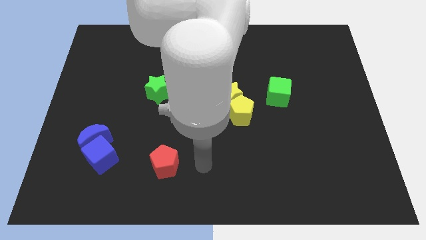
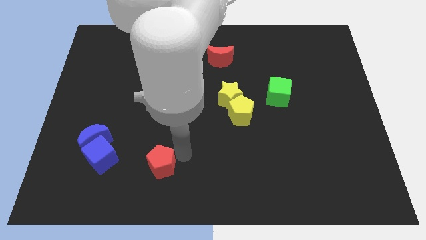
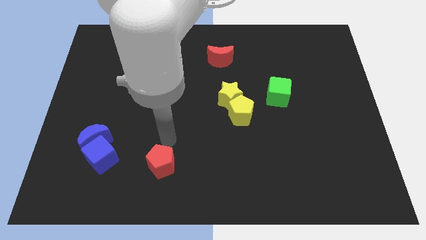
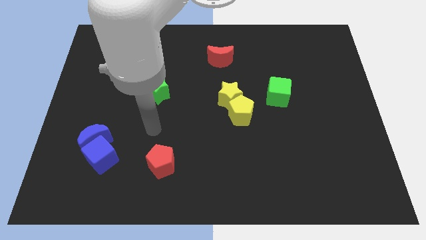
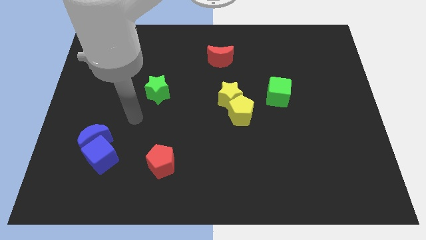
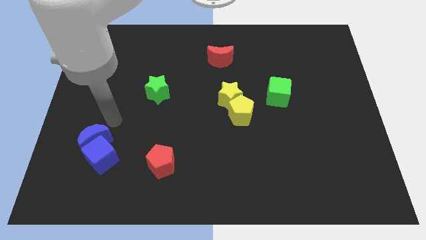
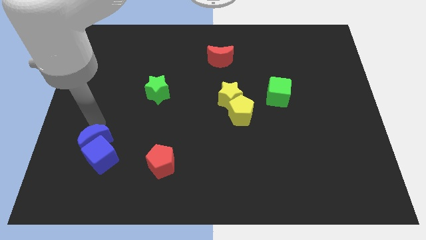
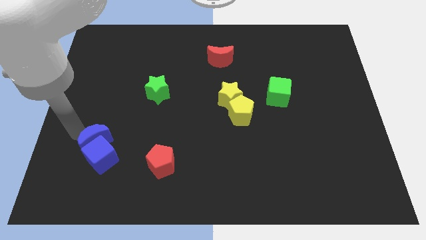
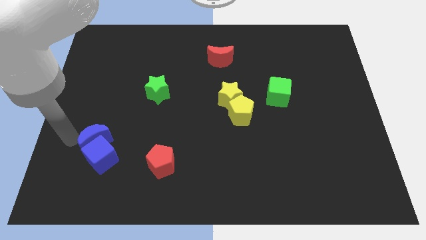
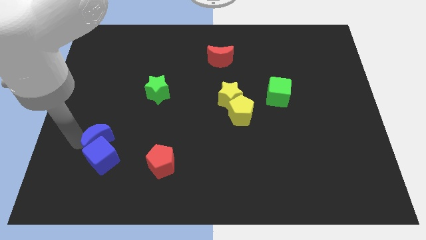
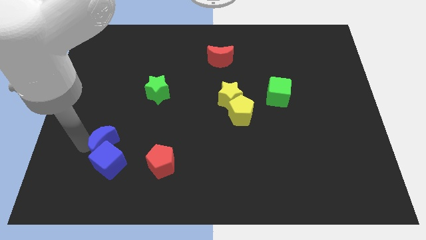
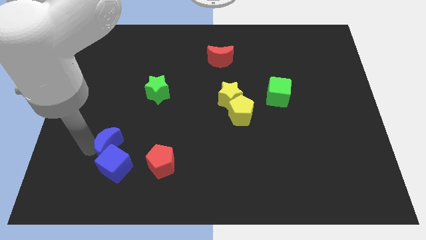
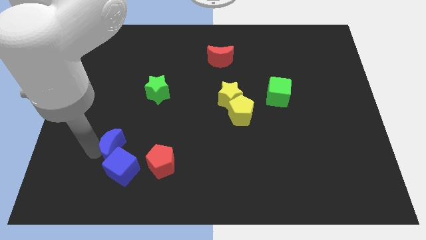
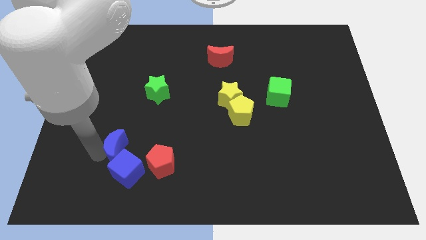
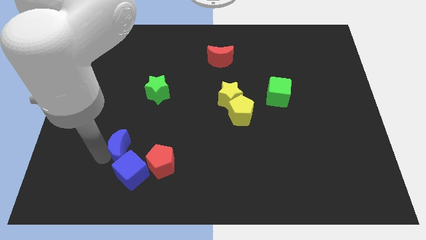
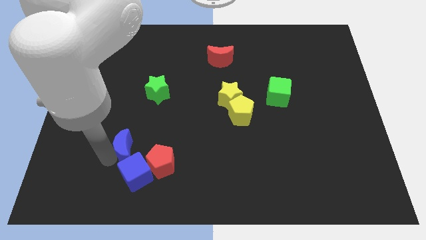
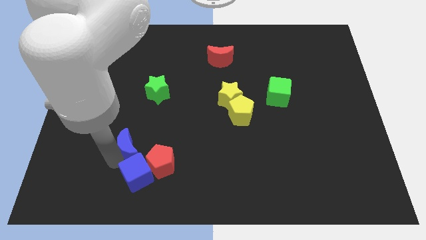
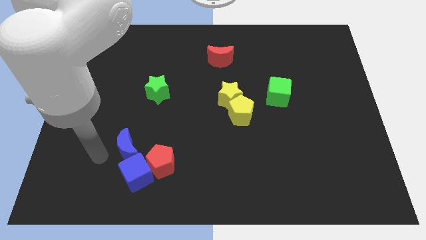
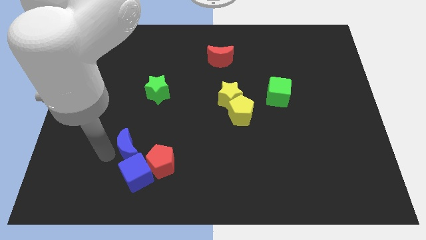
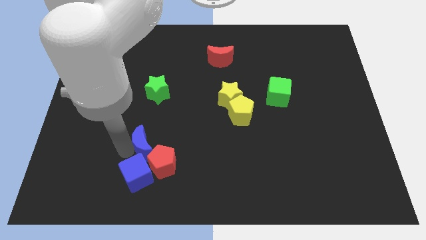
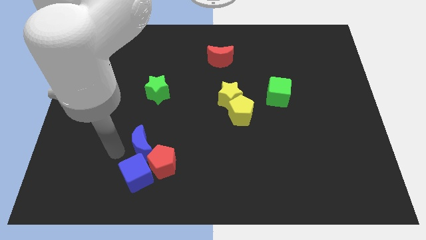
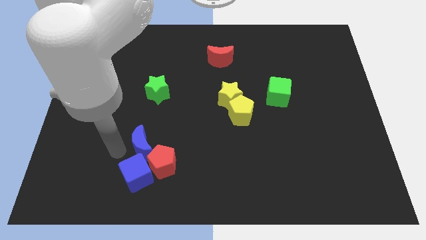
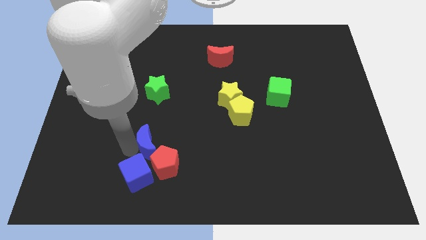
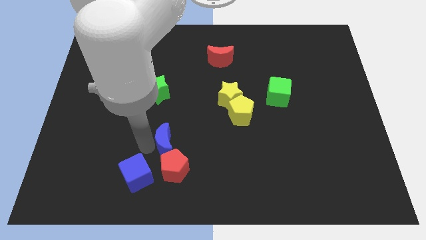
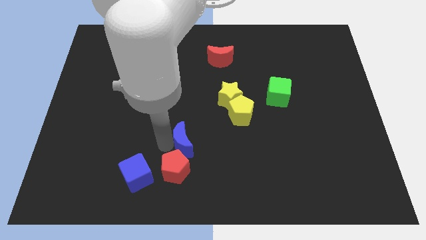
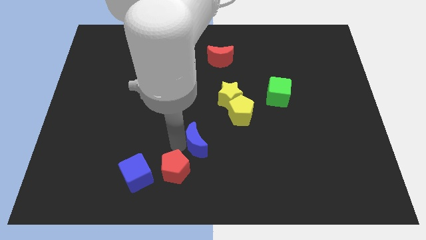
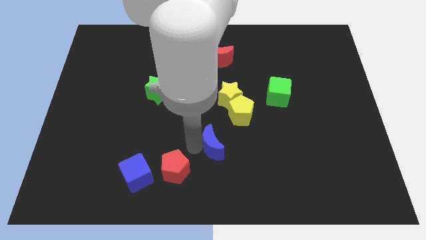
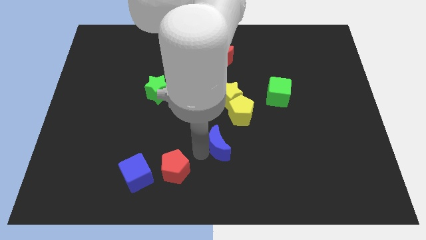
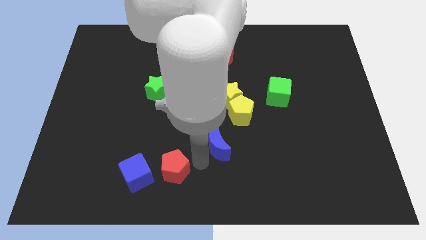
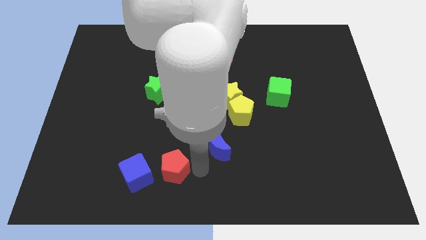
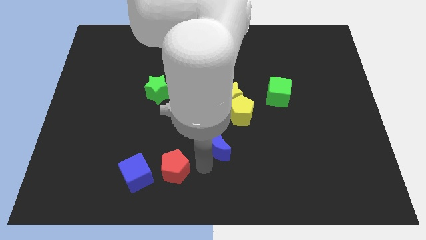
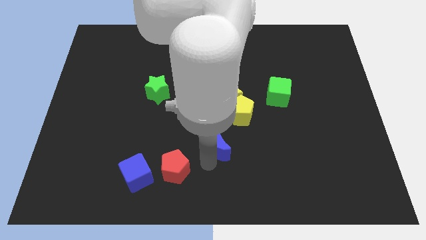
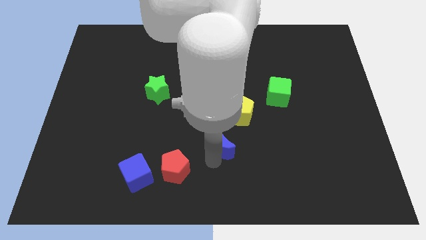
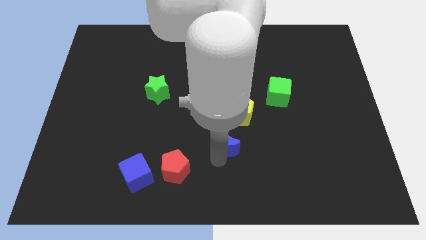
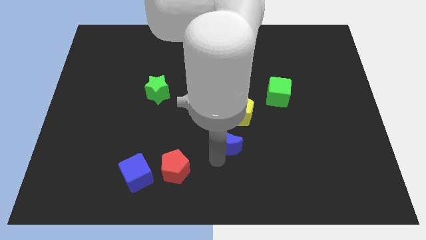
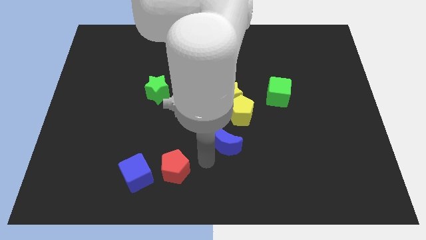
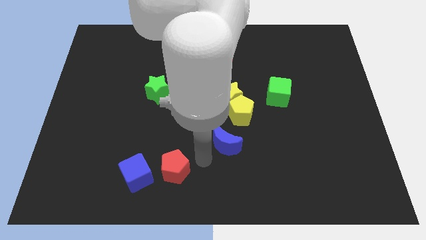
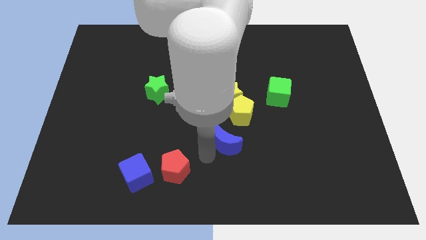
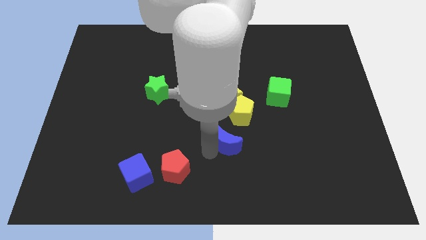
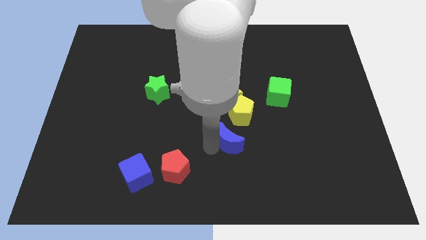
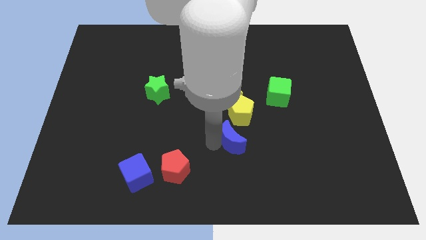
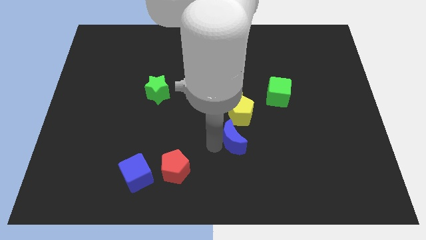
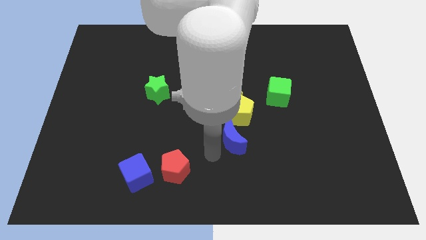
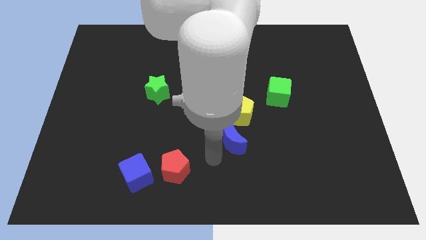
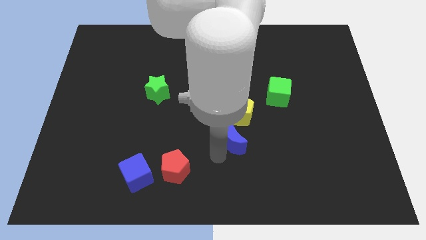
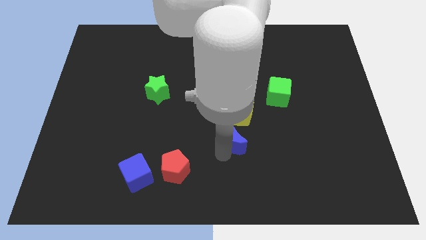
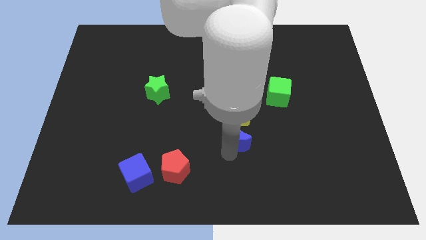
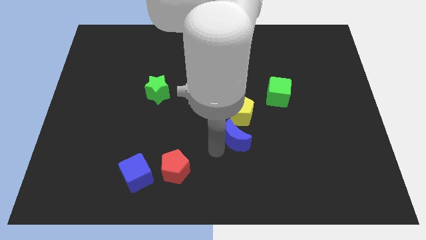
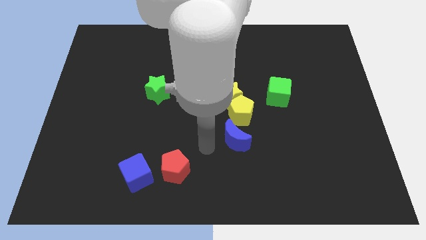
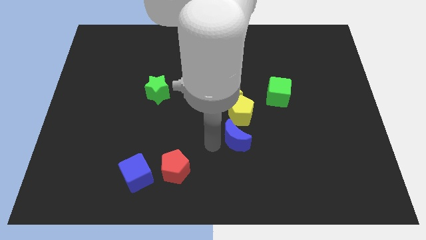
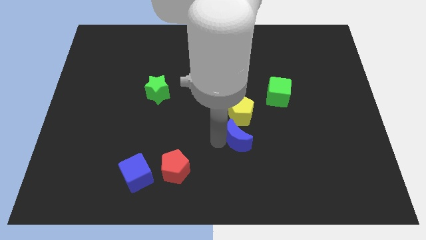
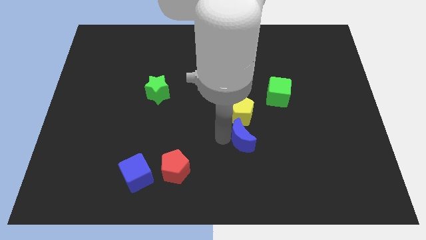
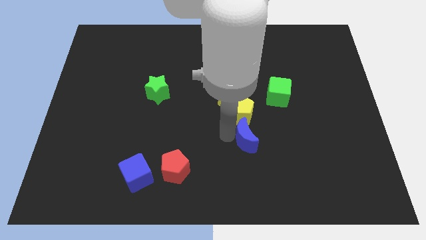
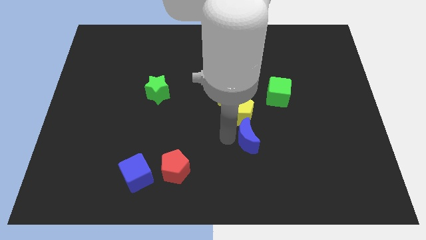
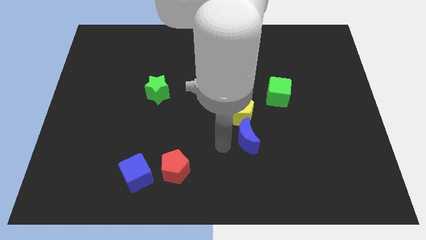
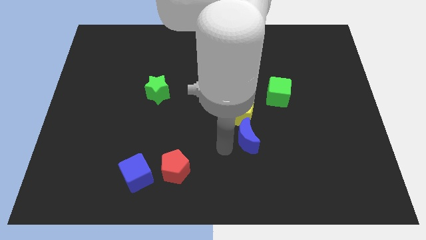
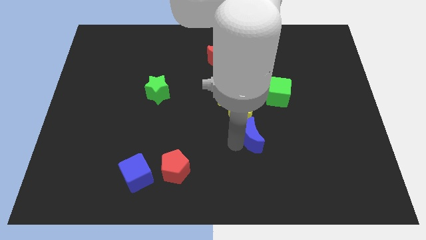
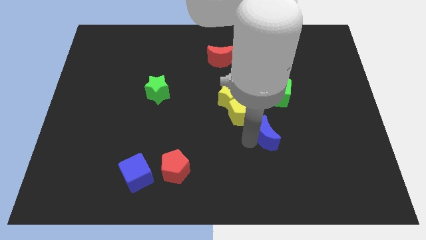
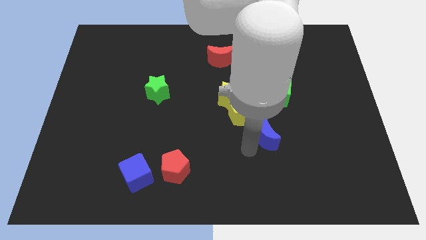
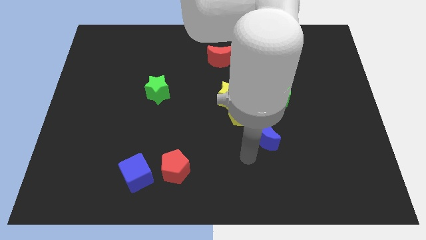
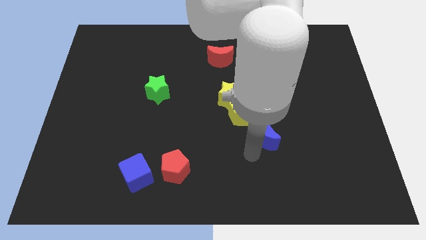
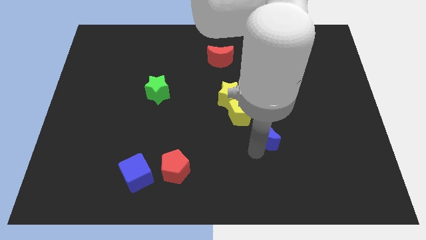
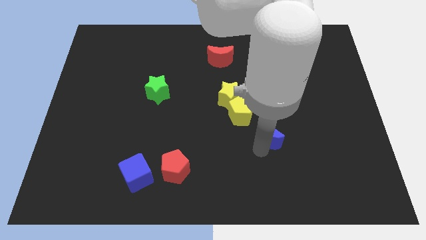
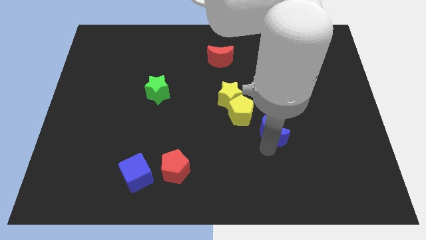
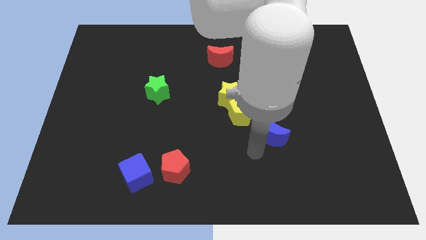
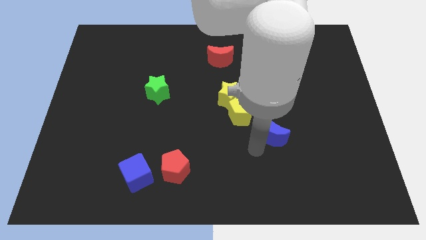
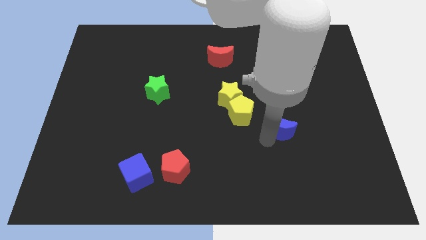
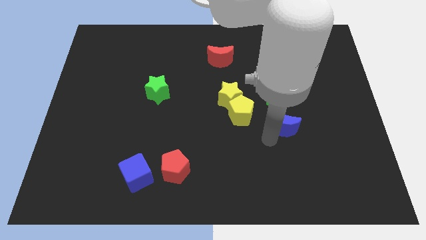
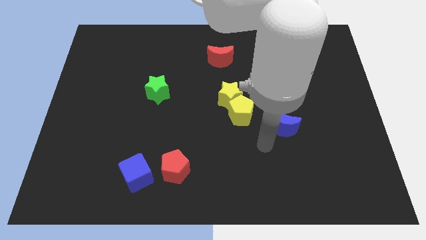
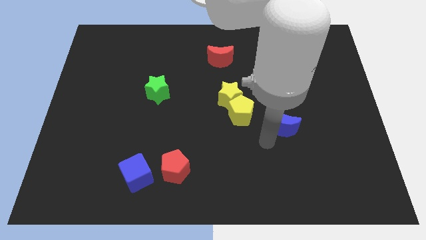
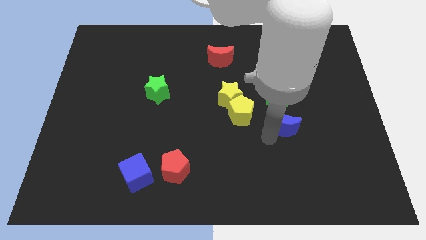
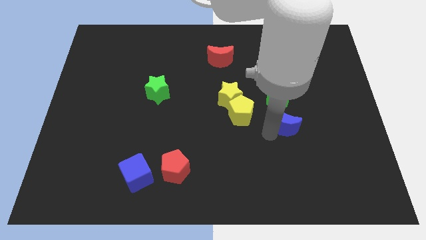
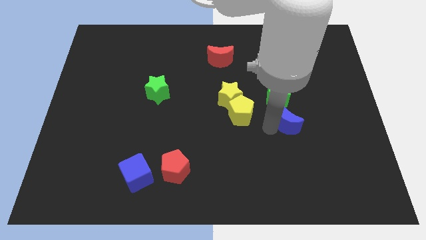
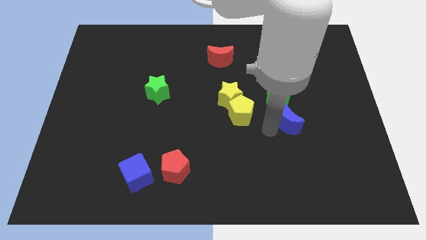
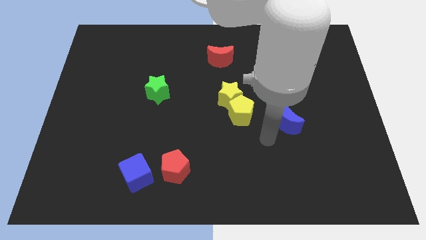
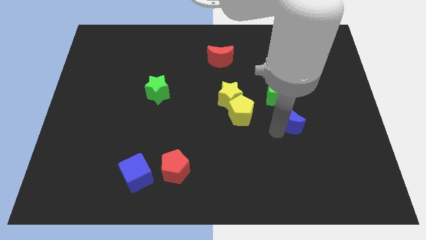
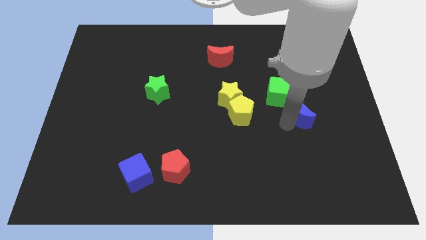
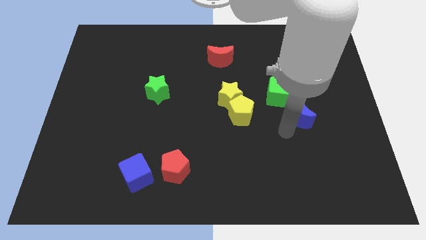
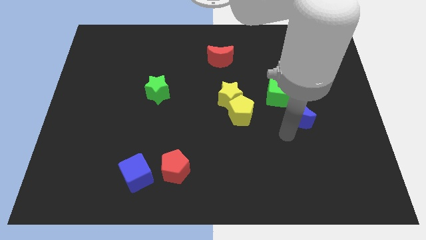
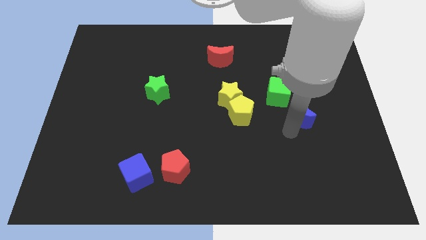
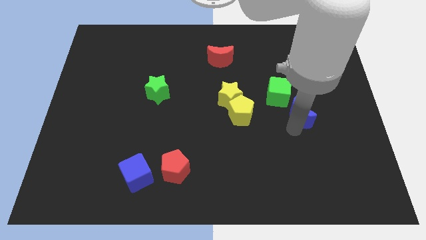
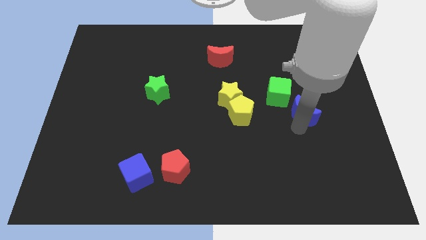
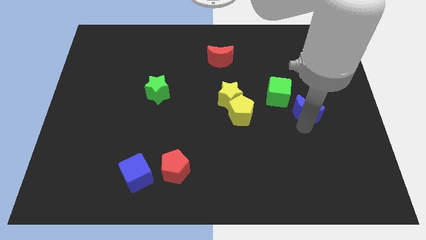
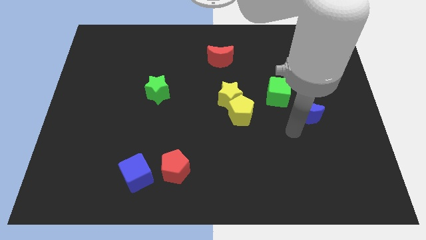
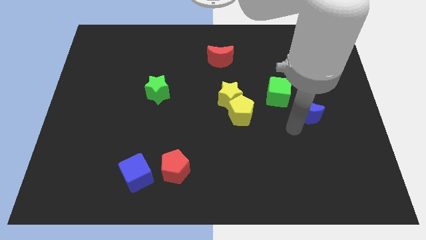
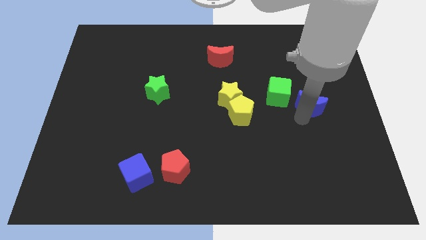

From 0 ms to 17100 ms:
put the blue moon right of the green cube
